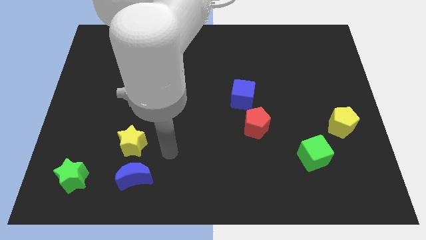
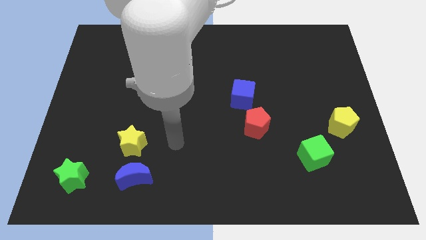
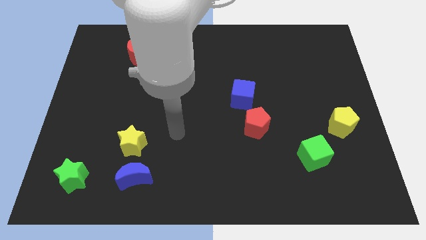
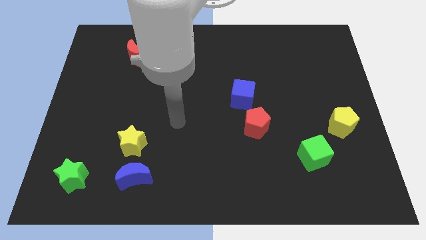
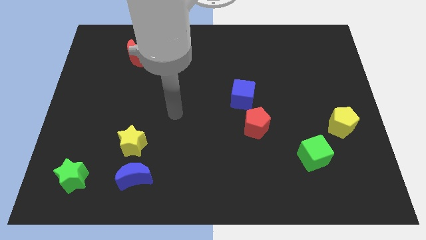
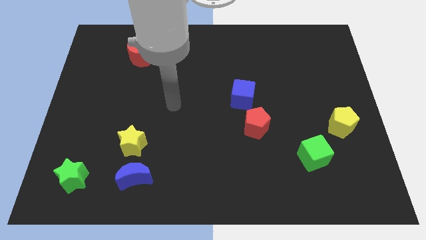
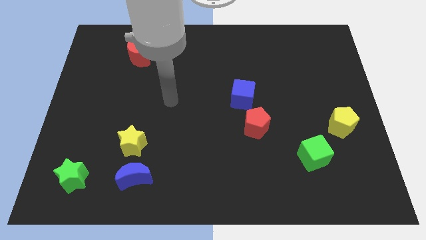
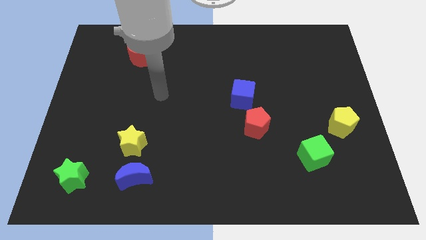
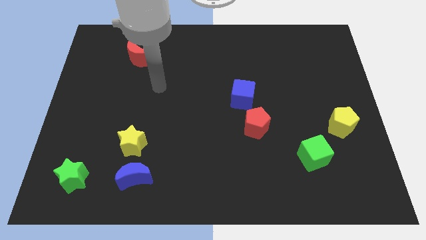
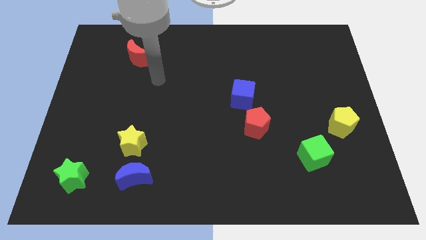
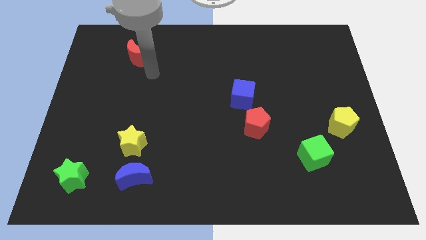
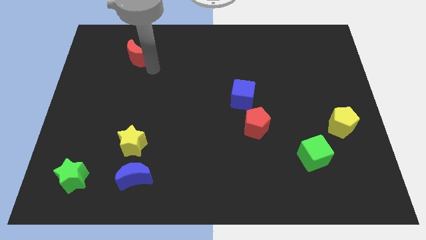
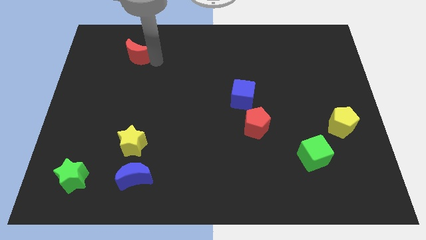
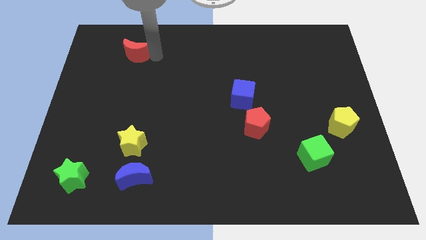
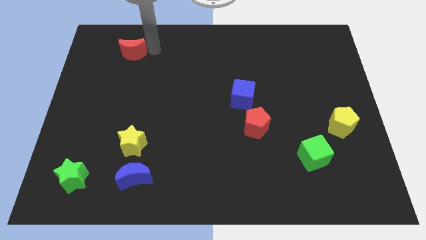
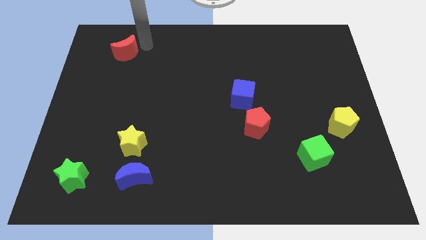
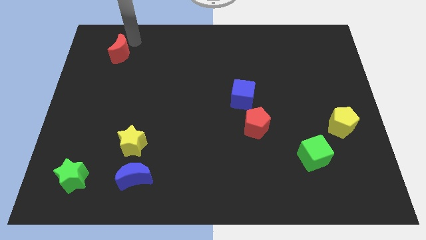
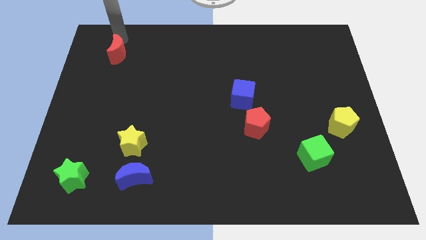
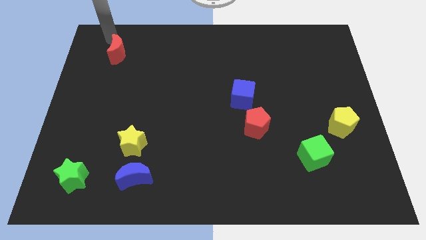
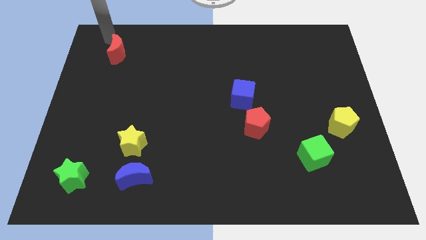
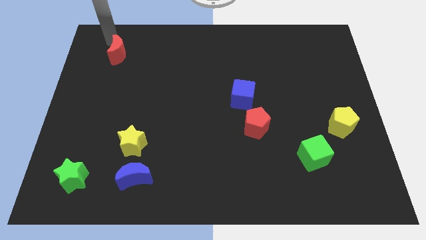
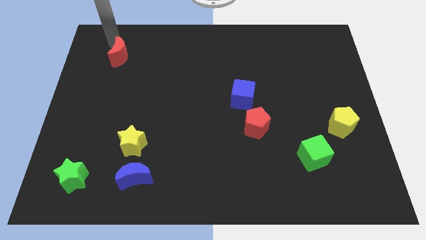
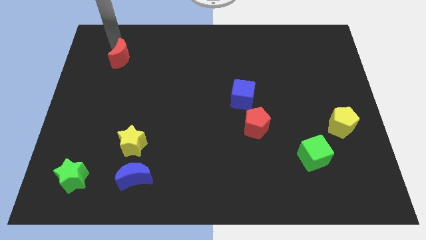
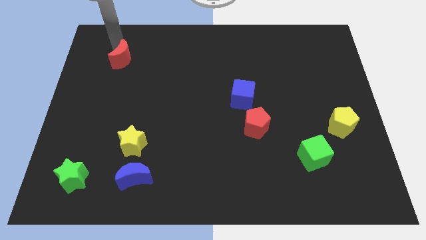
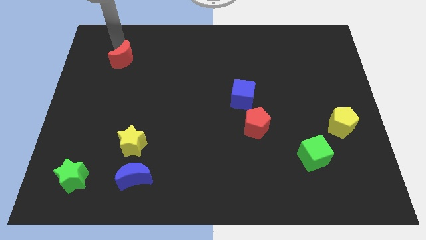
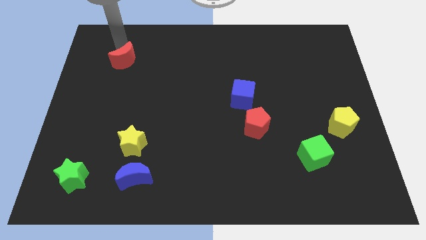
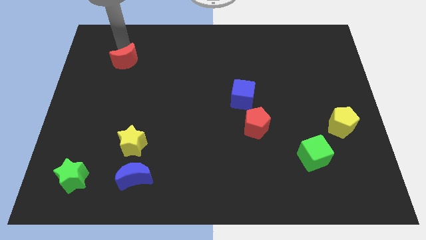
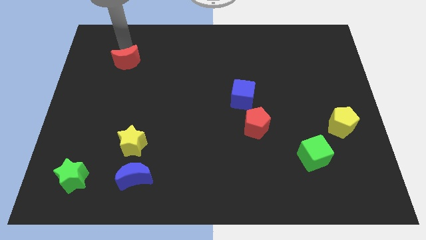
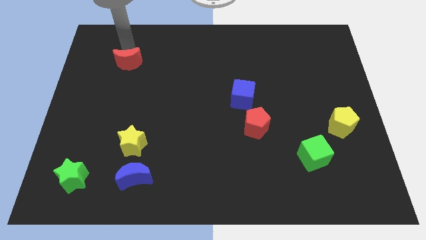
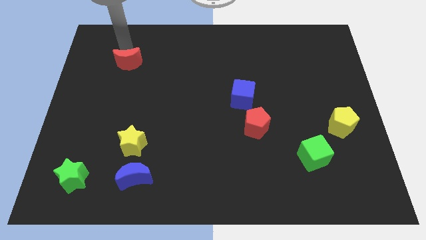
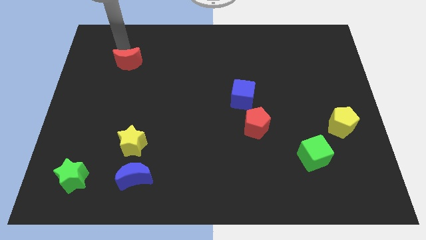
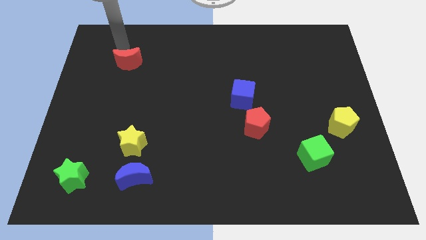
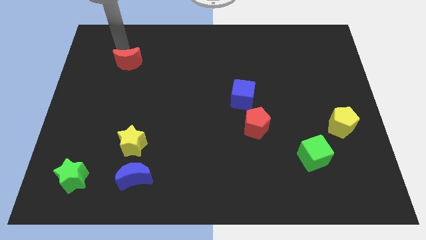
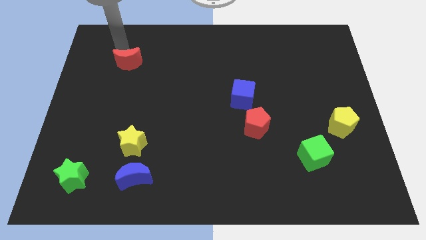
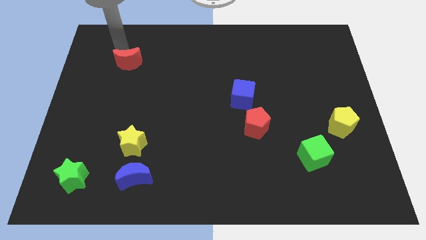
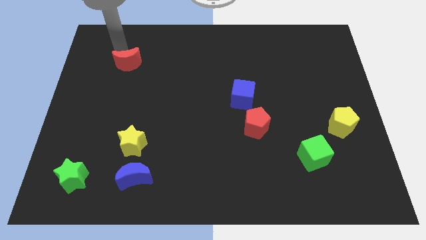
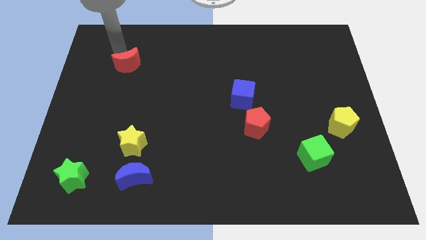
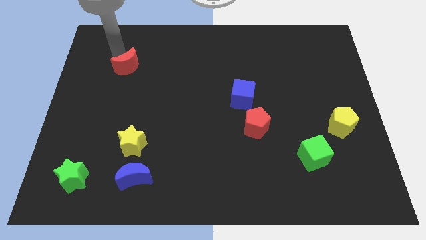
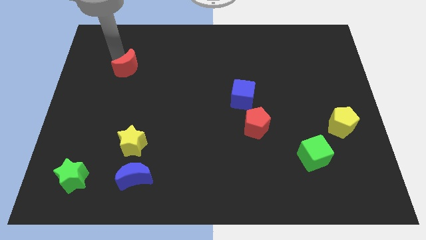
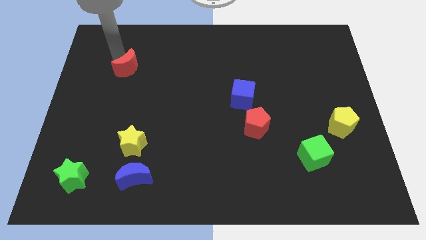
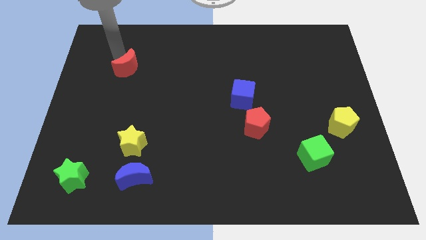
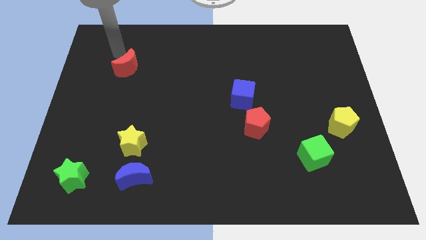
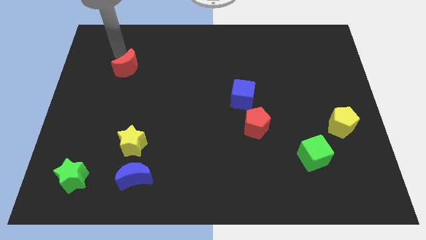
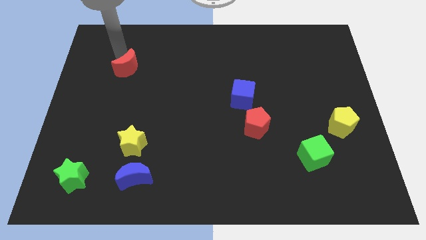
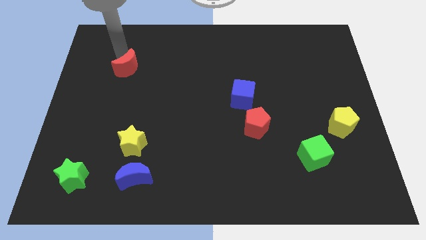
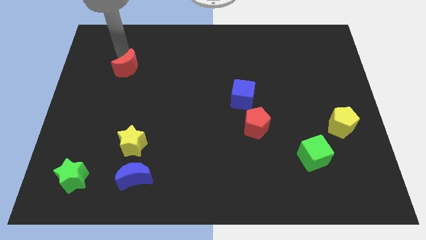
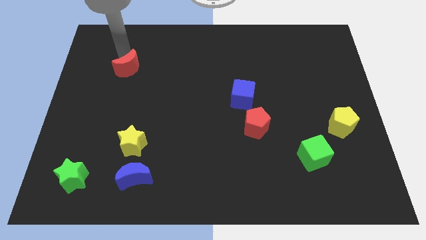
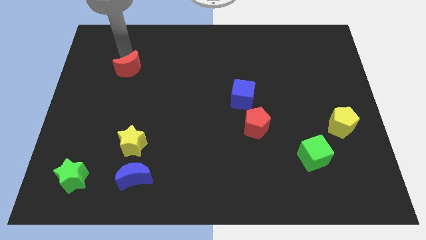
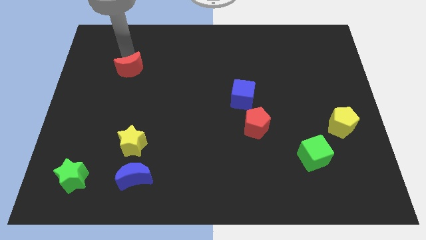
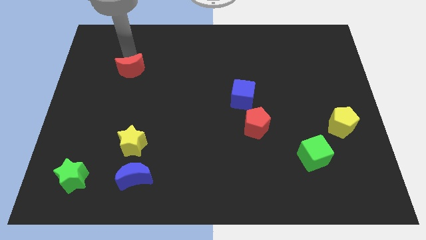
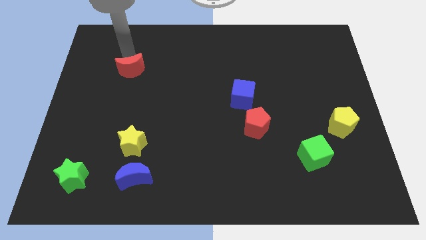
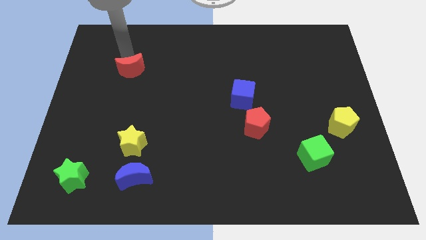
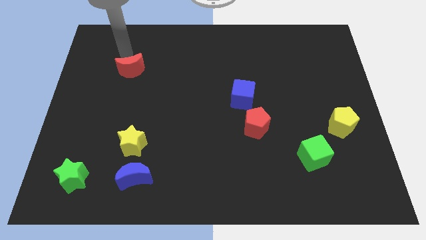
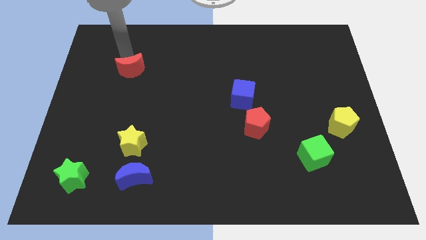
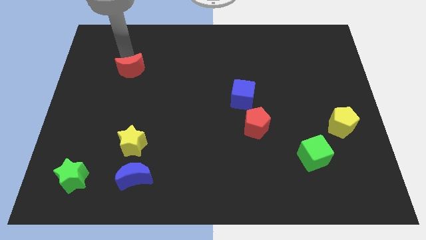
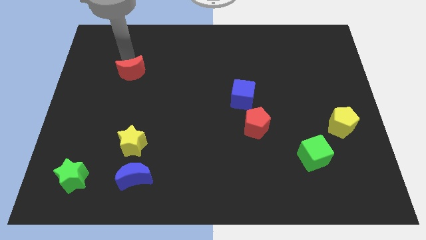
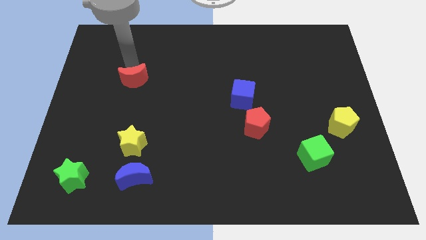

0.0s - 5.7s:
slightly push the red moon down

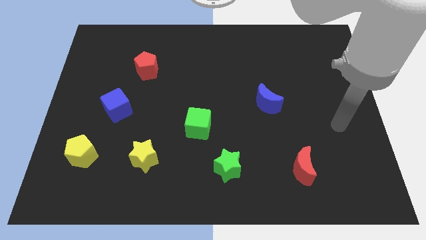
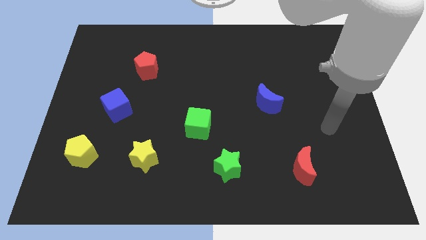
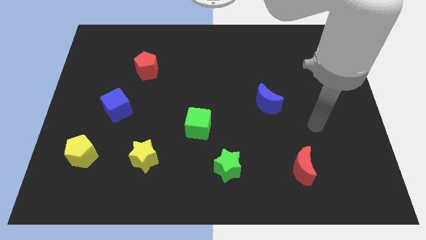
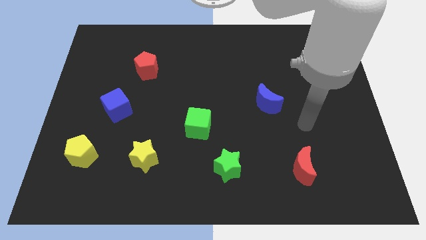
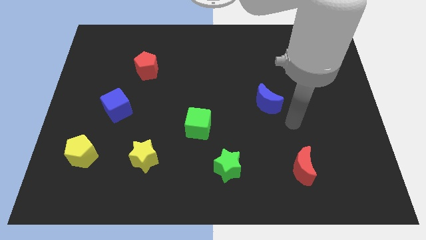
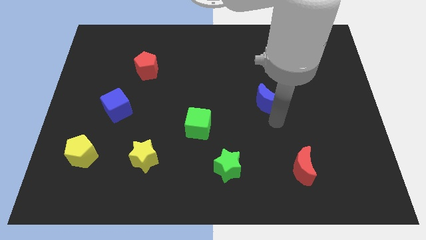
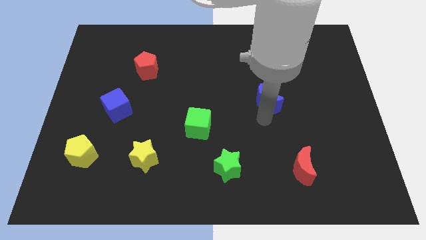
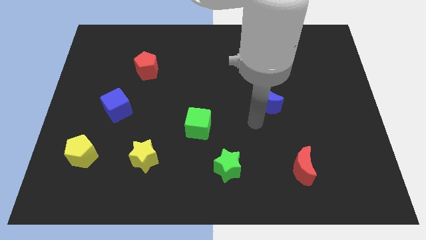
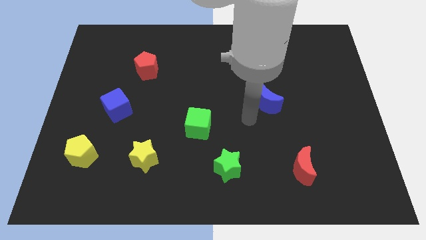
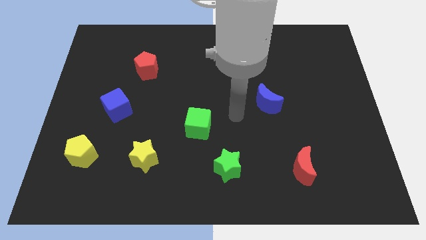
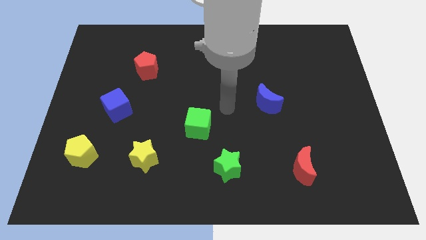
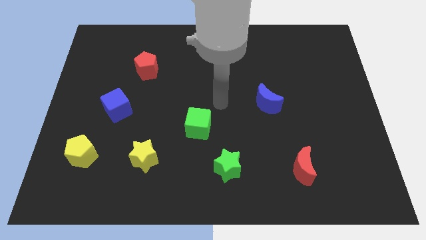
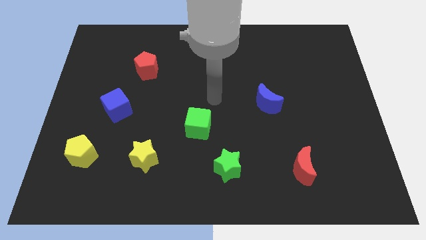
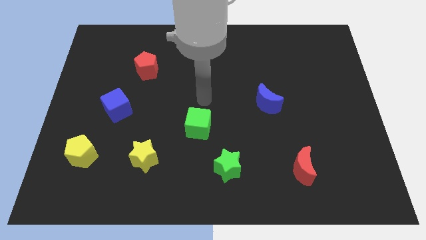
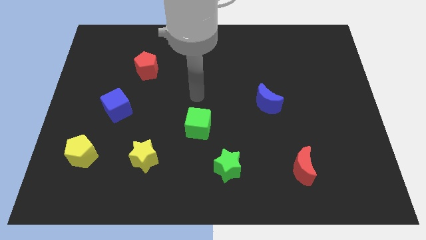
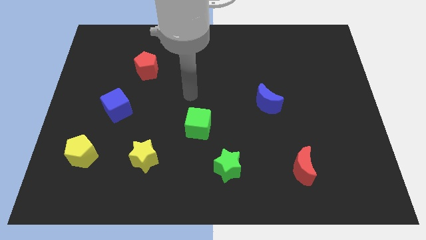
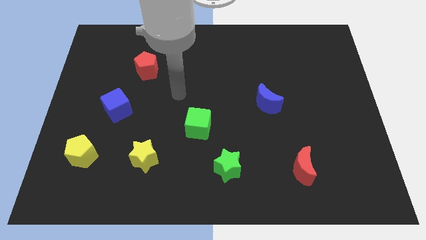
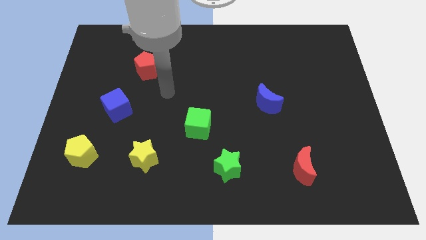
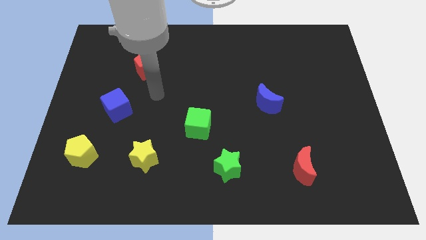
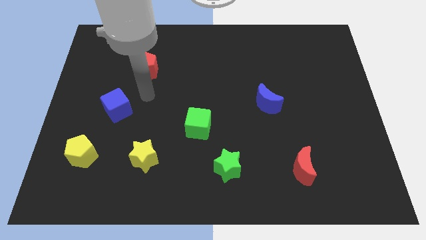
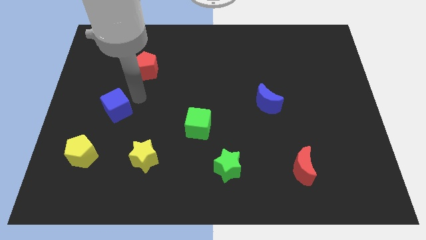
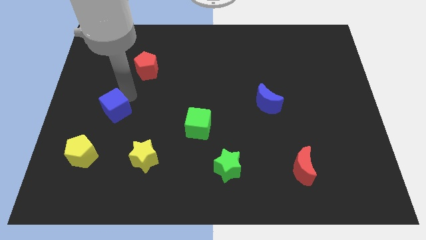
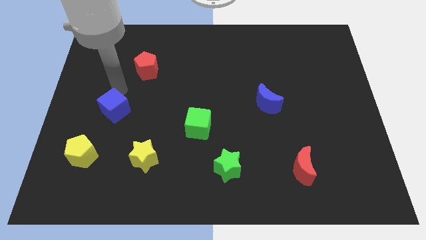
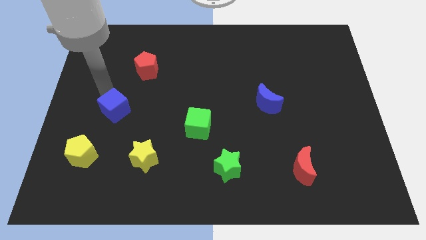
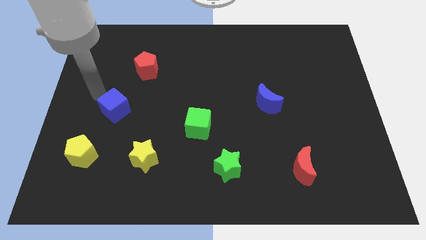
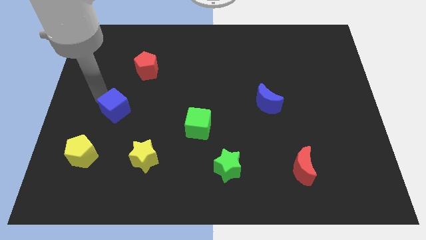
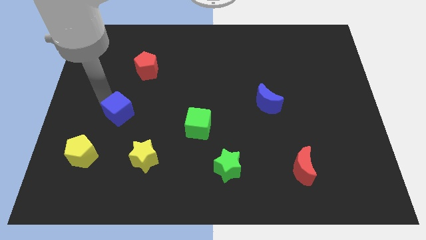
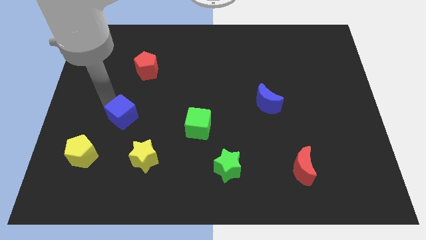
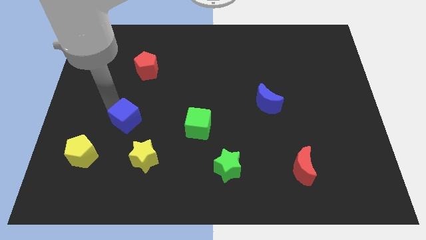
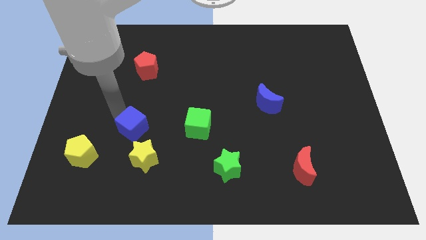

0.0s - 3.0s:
push the blue cube diagonally down and right a little
